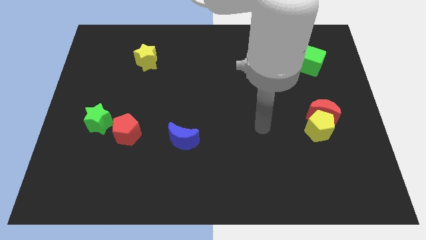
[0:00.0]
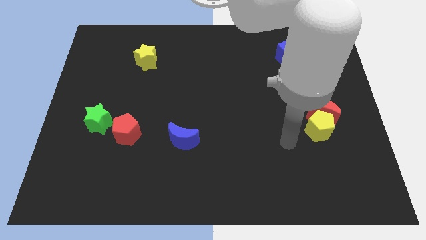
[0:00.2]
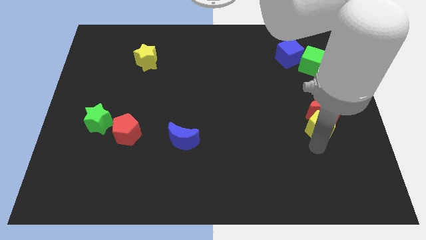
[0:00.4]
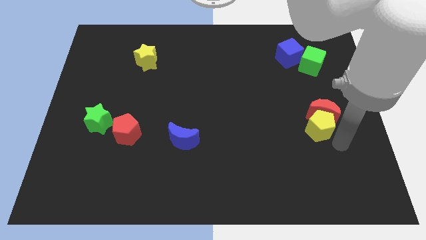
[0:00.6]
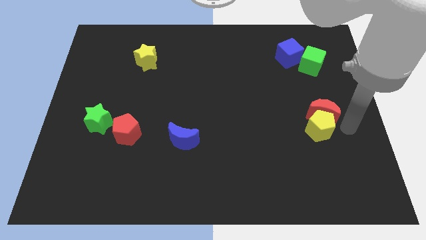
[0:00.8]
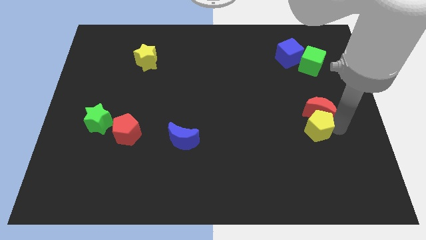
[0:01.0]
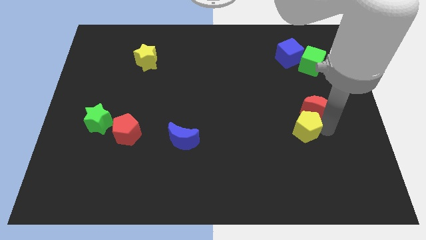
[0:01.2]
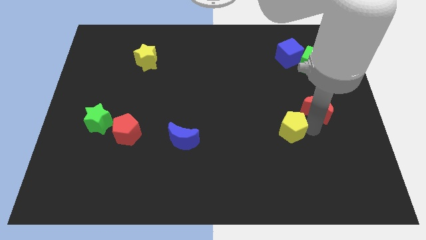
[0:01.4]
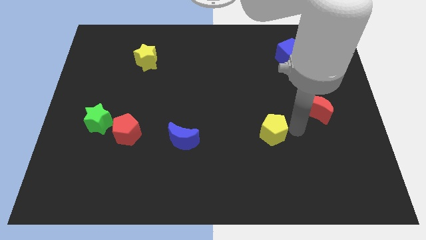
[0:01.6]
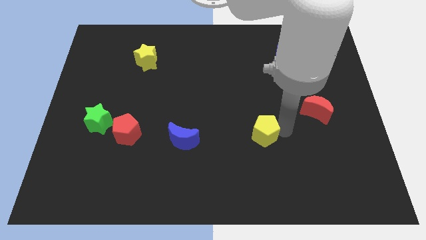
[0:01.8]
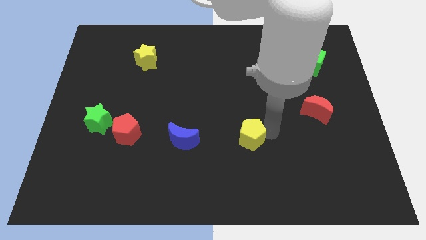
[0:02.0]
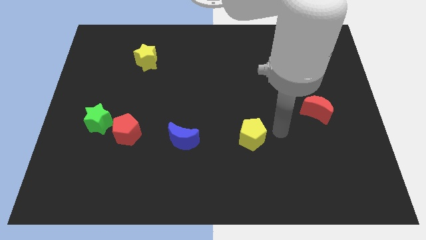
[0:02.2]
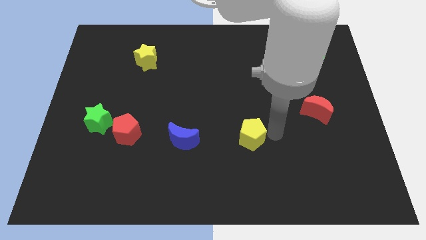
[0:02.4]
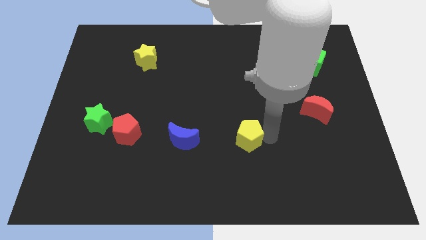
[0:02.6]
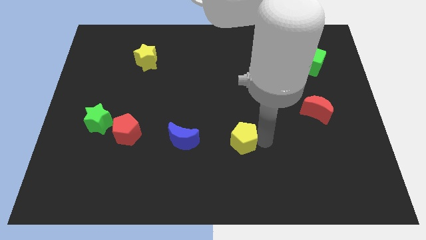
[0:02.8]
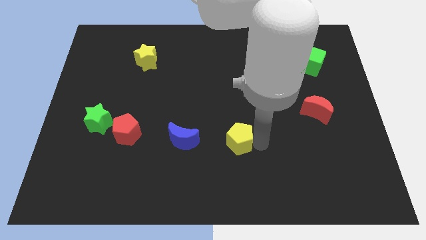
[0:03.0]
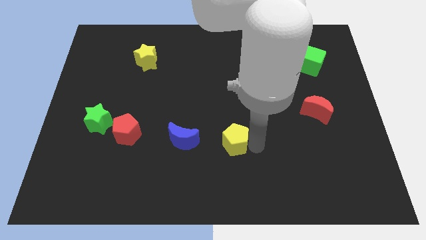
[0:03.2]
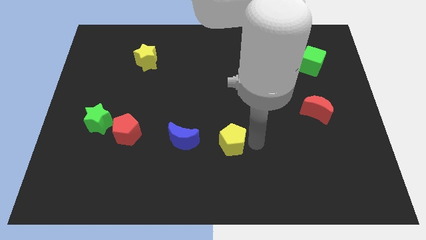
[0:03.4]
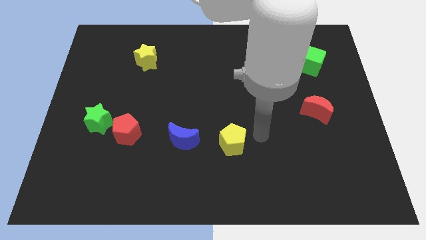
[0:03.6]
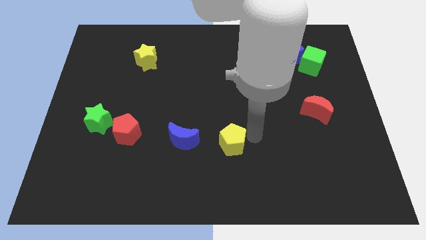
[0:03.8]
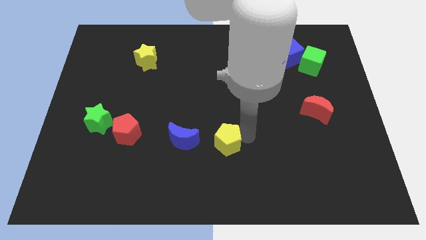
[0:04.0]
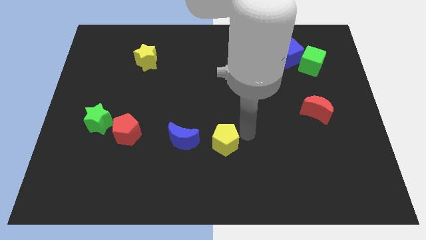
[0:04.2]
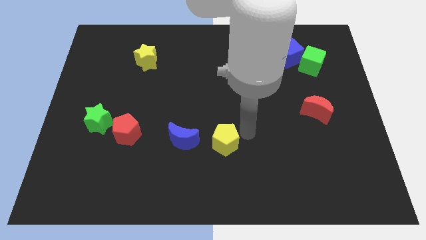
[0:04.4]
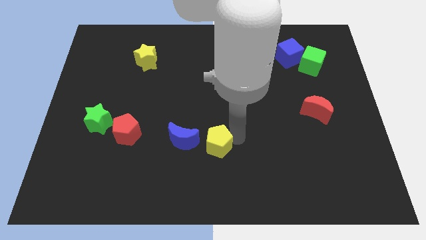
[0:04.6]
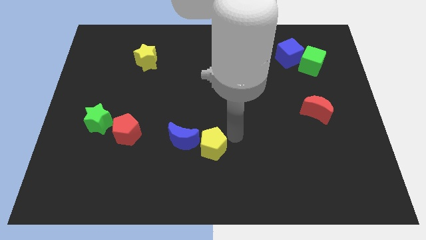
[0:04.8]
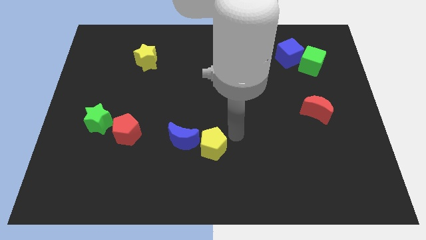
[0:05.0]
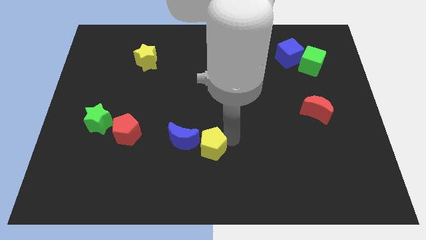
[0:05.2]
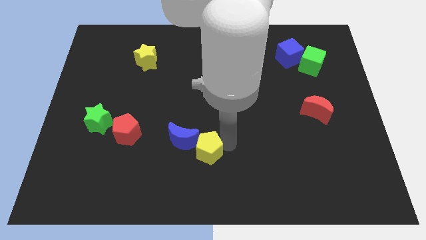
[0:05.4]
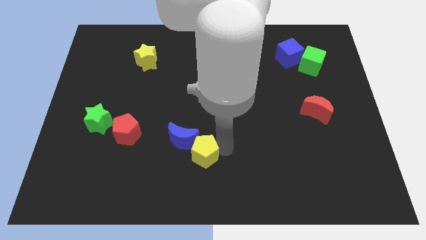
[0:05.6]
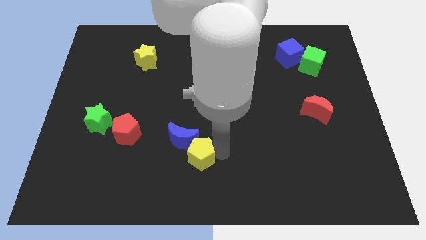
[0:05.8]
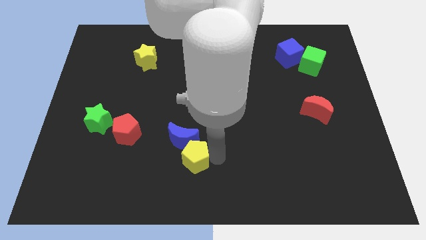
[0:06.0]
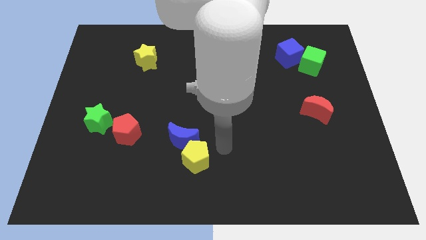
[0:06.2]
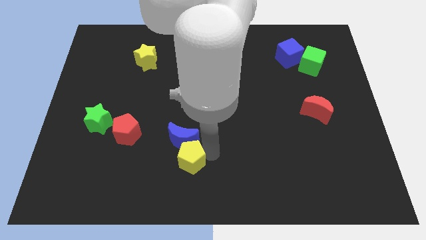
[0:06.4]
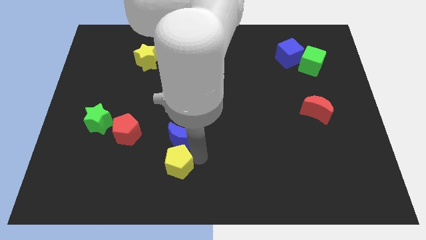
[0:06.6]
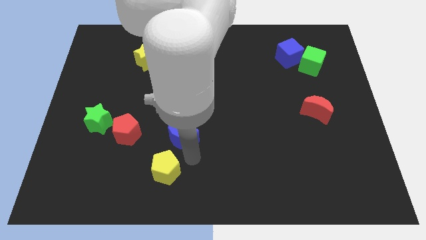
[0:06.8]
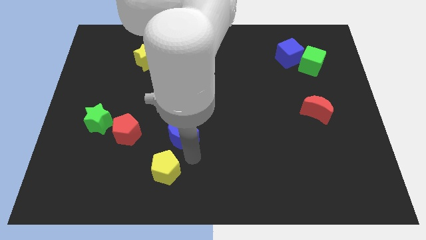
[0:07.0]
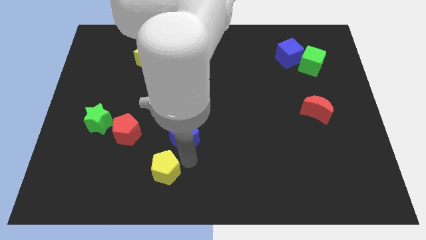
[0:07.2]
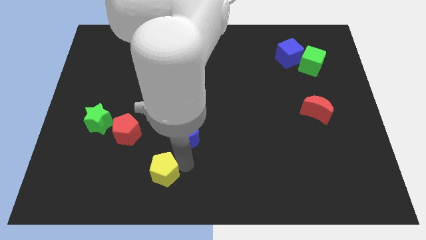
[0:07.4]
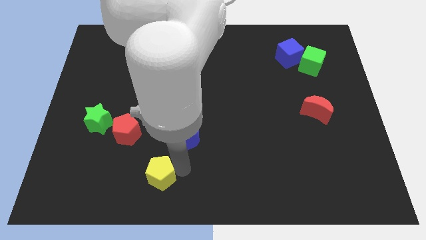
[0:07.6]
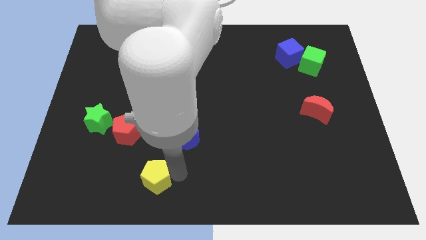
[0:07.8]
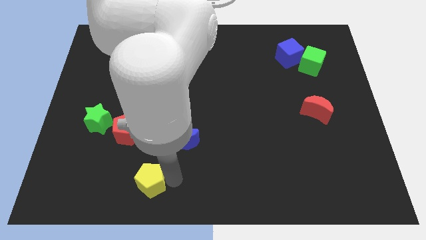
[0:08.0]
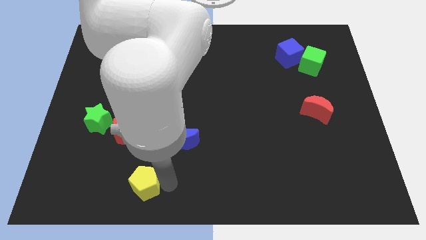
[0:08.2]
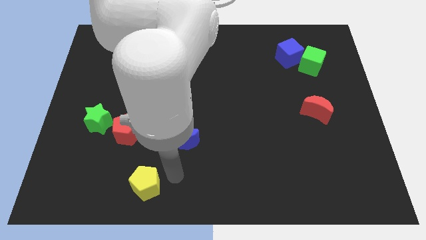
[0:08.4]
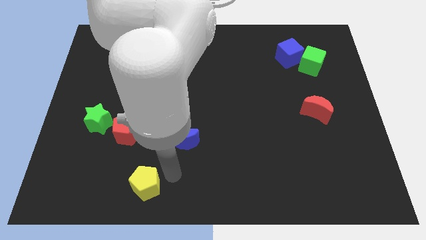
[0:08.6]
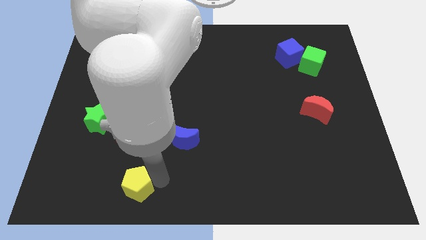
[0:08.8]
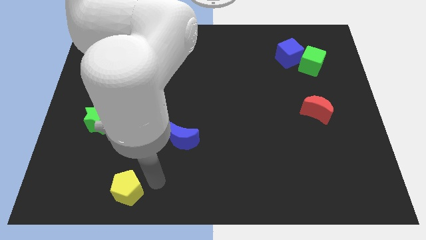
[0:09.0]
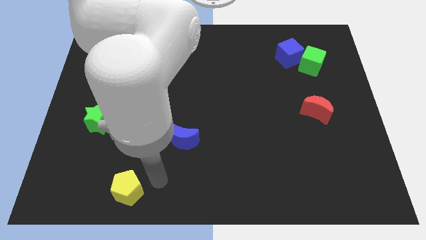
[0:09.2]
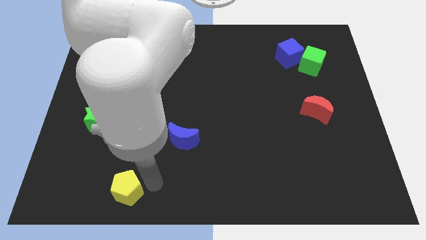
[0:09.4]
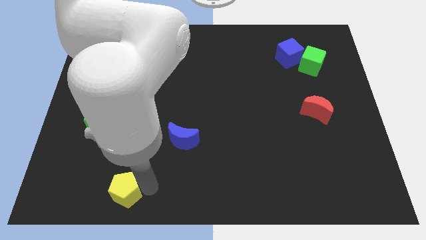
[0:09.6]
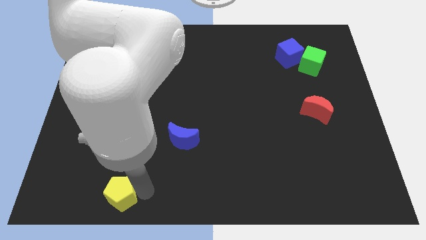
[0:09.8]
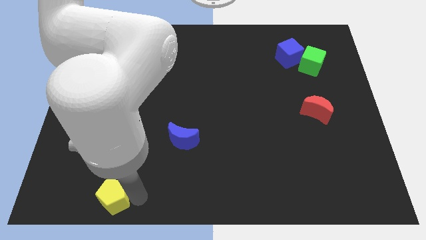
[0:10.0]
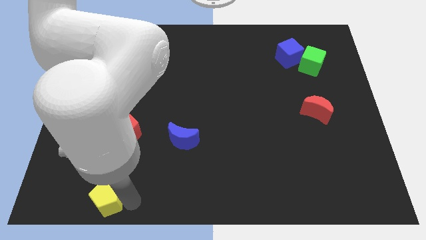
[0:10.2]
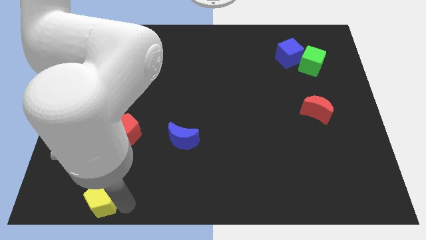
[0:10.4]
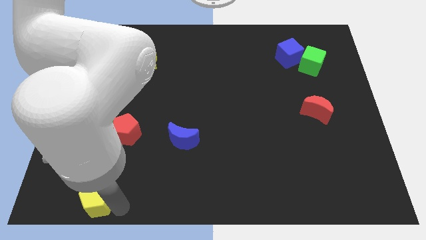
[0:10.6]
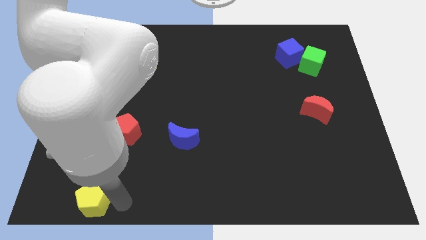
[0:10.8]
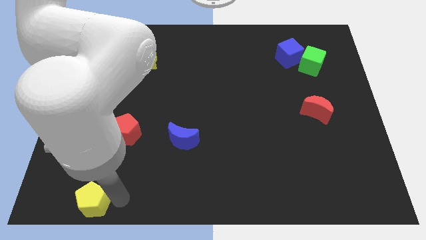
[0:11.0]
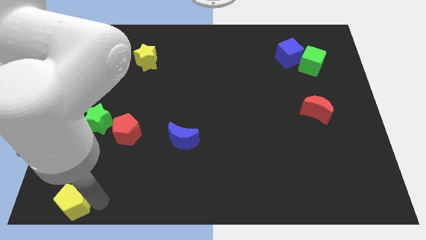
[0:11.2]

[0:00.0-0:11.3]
put the yellow pentagon to the bottom left

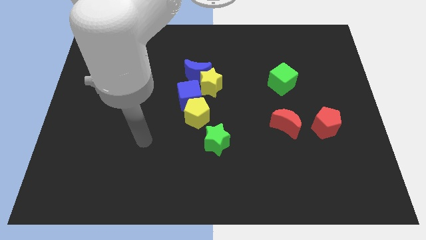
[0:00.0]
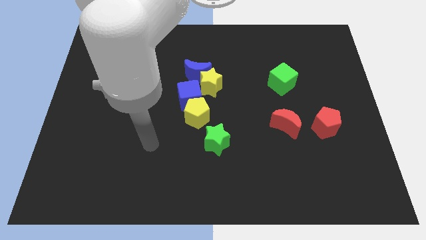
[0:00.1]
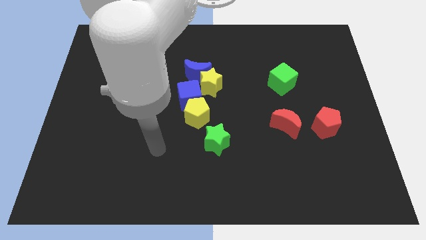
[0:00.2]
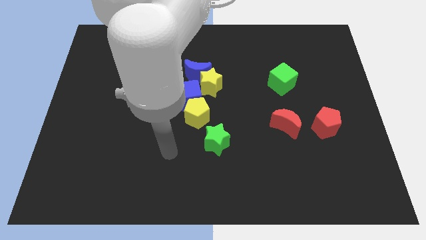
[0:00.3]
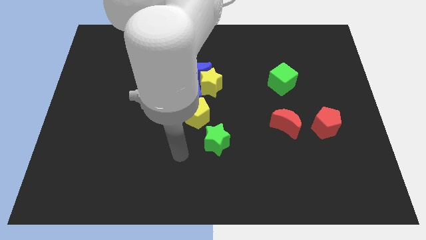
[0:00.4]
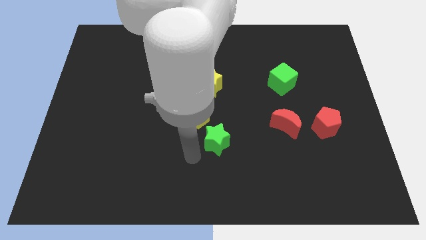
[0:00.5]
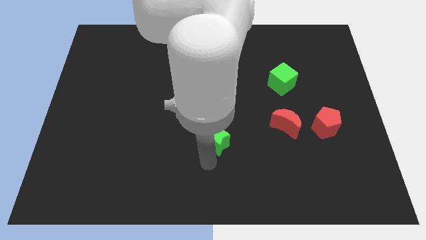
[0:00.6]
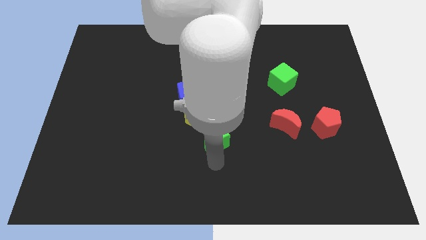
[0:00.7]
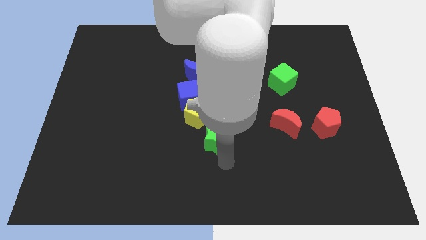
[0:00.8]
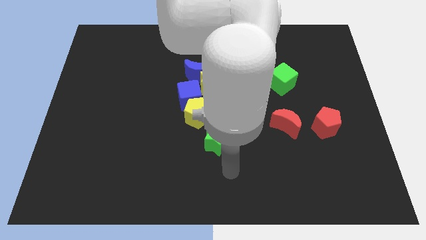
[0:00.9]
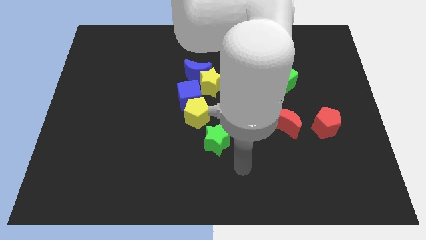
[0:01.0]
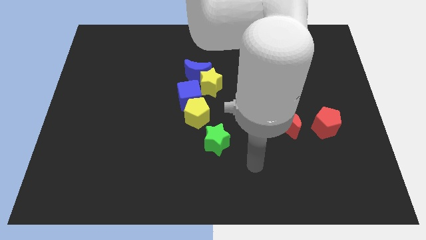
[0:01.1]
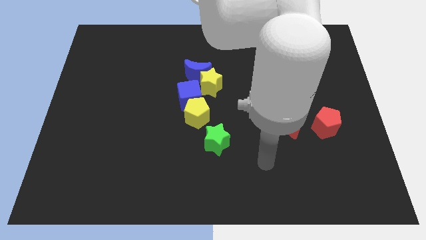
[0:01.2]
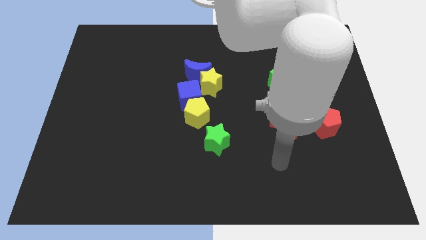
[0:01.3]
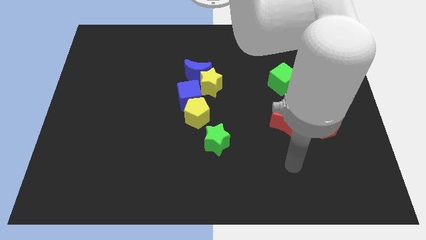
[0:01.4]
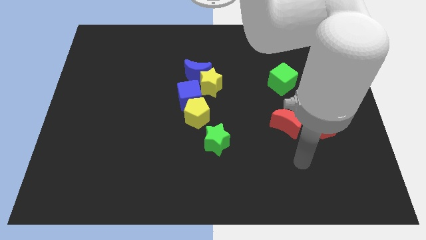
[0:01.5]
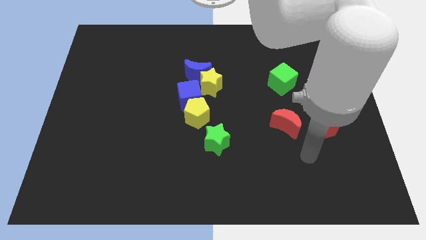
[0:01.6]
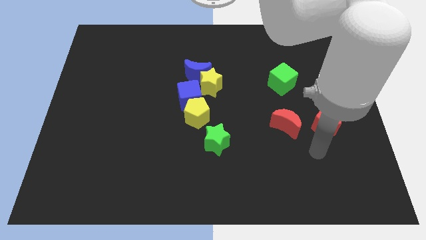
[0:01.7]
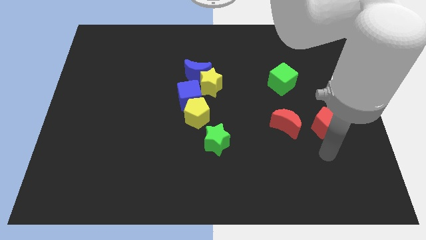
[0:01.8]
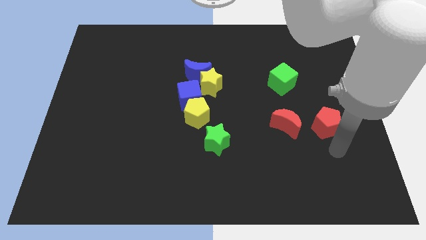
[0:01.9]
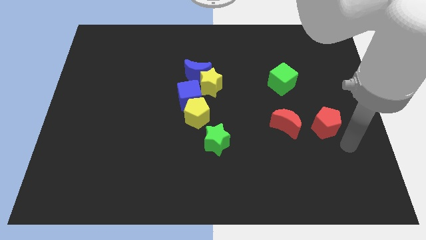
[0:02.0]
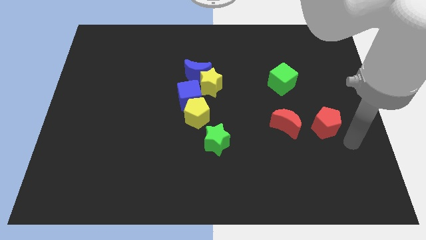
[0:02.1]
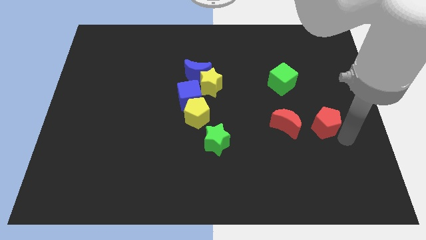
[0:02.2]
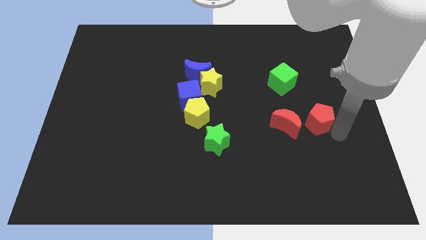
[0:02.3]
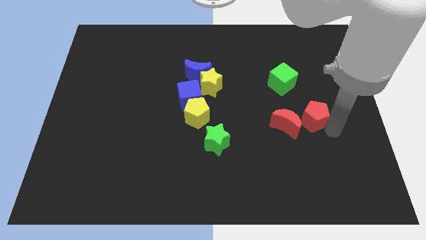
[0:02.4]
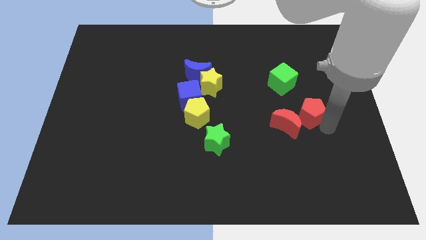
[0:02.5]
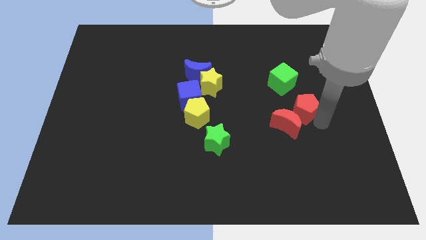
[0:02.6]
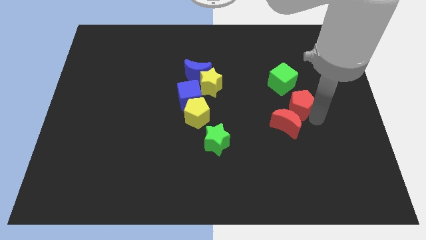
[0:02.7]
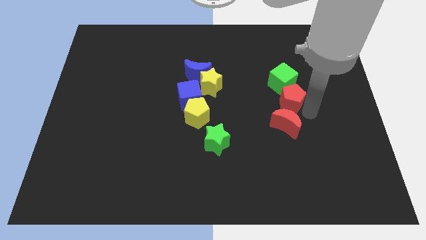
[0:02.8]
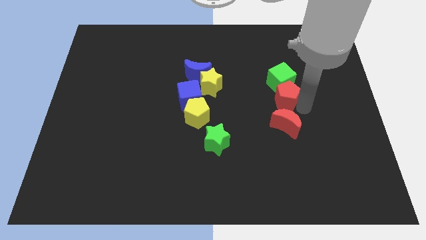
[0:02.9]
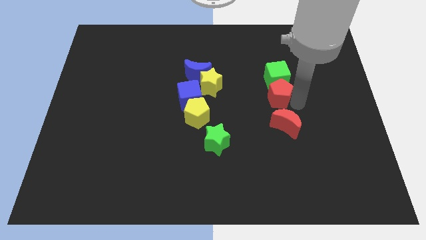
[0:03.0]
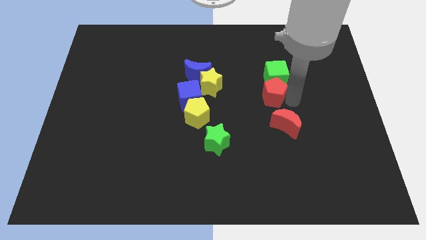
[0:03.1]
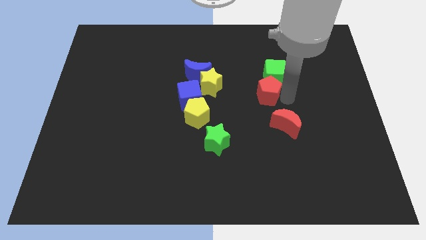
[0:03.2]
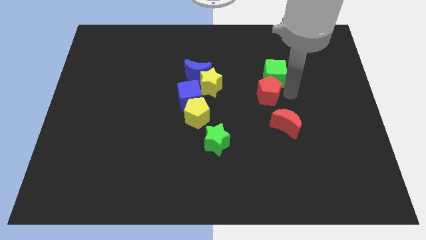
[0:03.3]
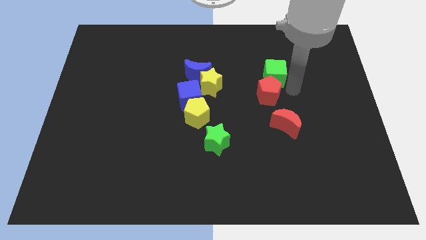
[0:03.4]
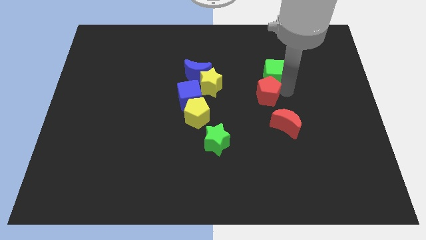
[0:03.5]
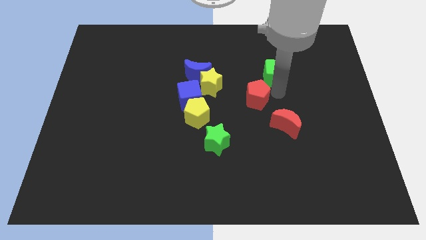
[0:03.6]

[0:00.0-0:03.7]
push the red pentagon to the center
